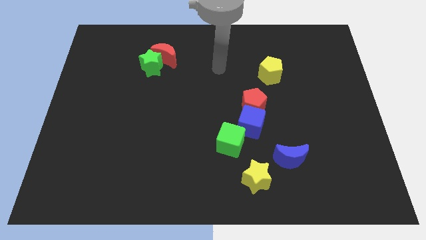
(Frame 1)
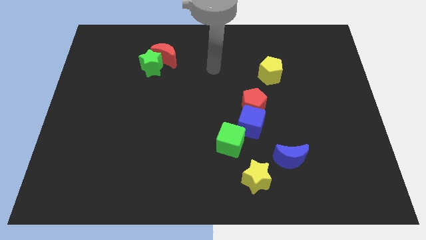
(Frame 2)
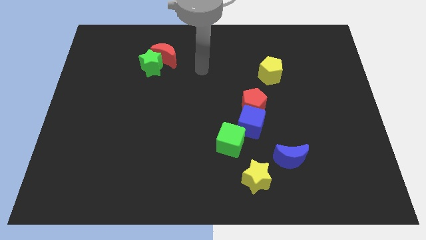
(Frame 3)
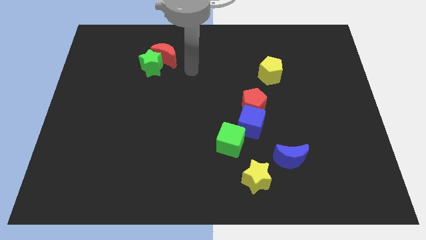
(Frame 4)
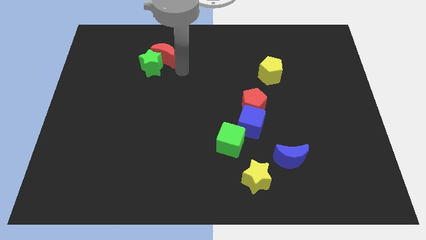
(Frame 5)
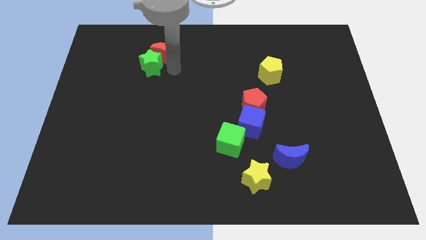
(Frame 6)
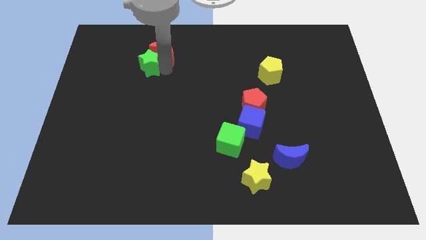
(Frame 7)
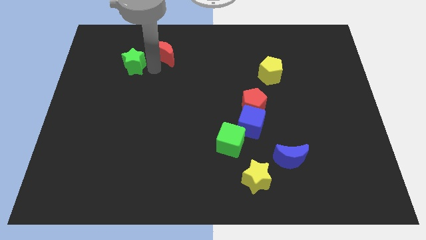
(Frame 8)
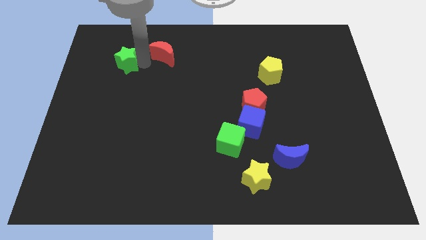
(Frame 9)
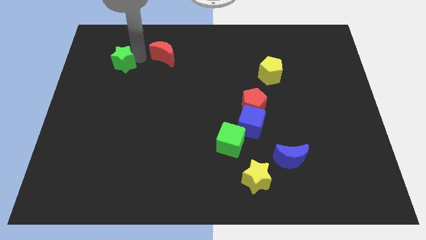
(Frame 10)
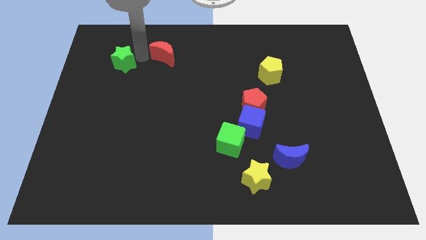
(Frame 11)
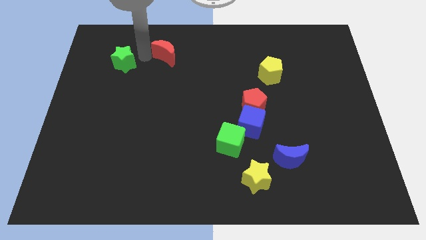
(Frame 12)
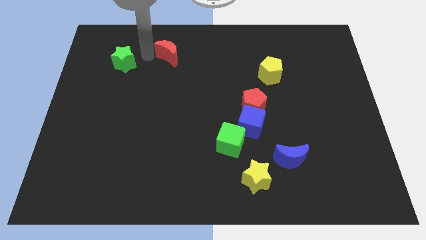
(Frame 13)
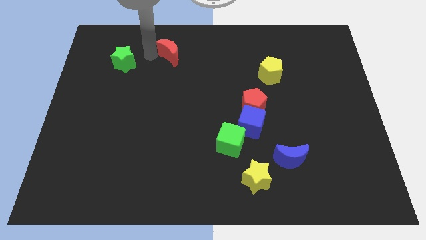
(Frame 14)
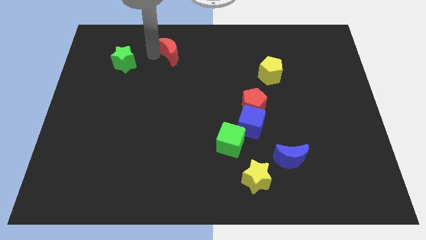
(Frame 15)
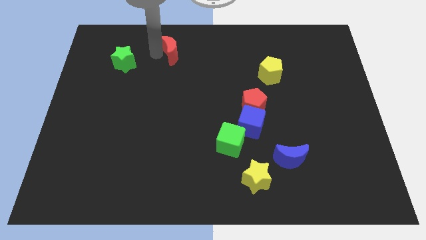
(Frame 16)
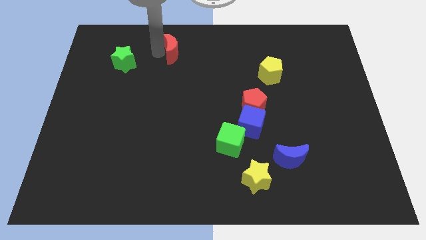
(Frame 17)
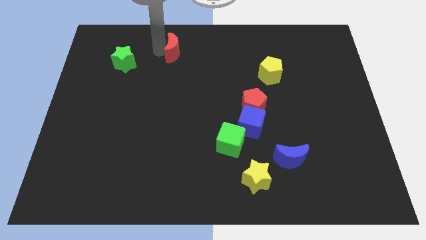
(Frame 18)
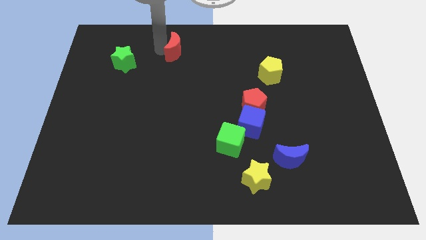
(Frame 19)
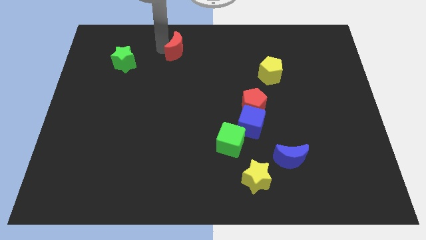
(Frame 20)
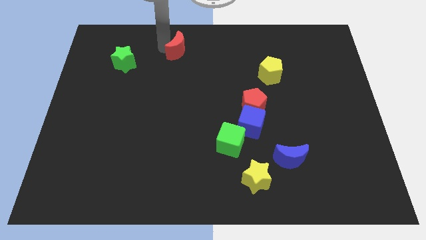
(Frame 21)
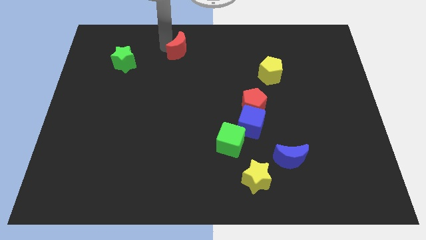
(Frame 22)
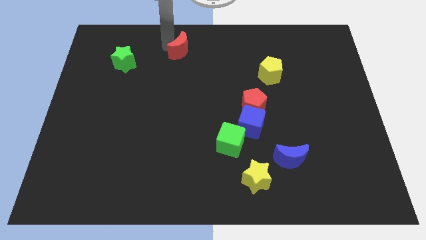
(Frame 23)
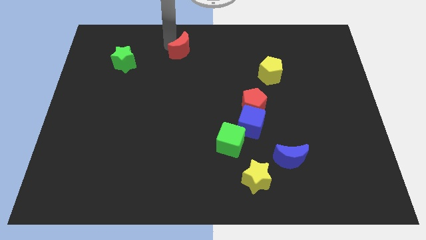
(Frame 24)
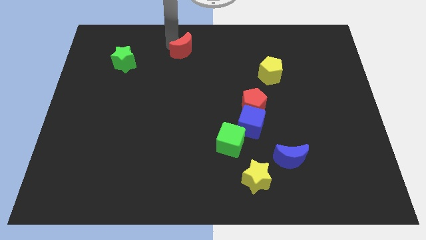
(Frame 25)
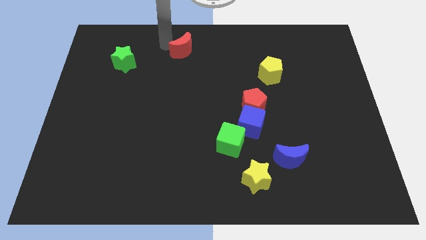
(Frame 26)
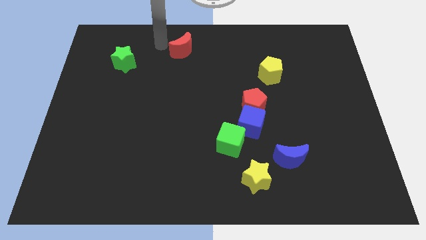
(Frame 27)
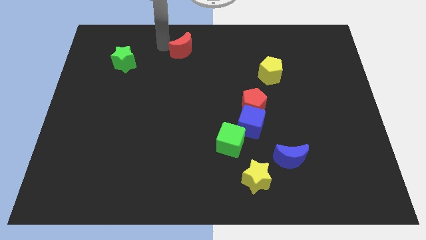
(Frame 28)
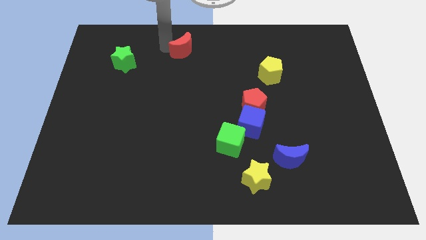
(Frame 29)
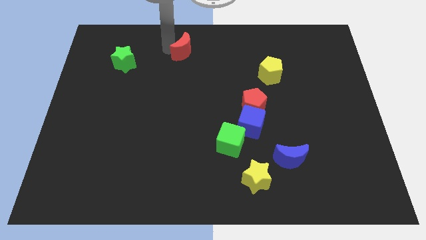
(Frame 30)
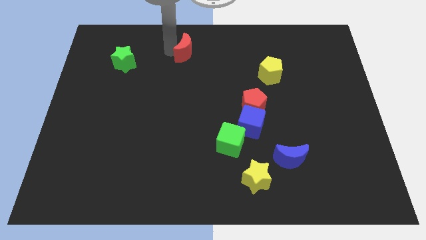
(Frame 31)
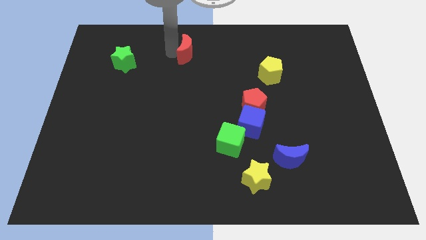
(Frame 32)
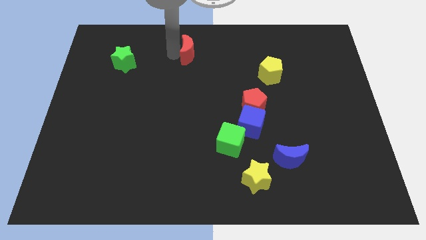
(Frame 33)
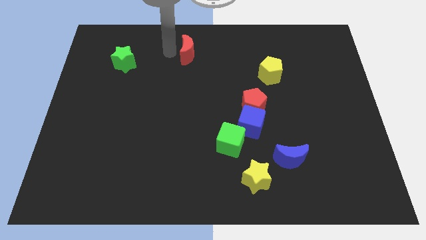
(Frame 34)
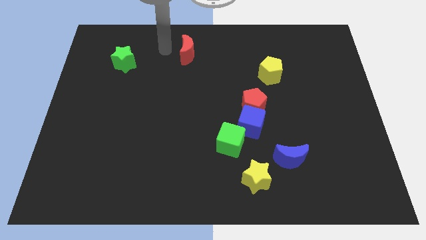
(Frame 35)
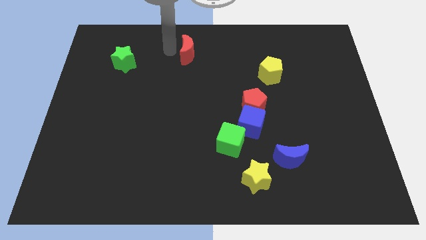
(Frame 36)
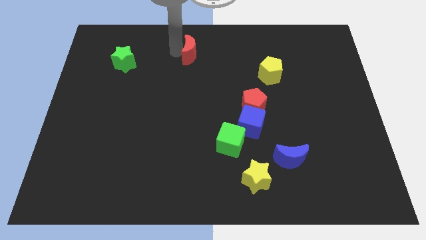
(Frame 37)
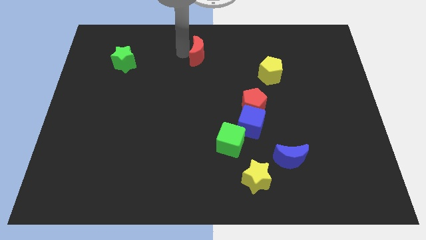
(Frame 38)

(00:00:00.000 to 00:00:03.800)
slide the red moon somewhat right

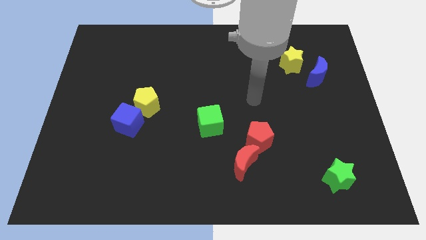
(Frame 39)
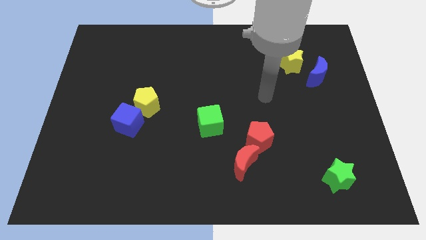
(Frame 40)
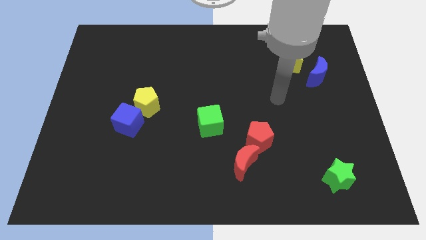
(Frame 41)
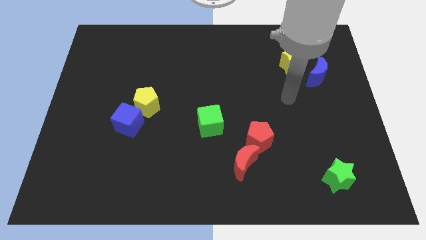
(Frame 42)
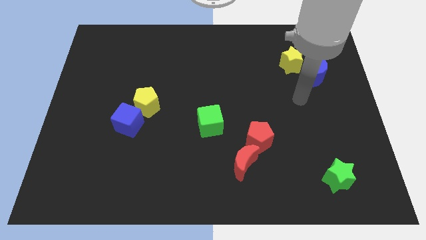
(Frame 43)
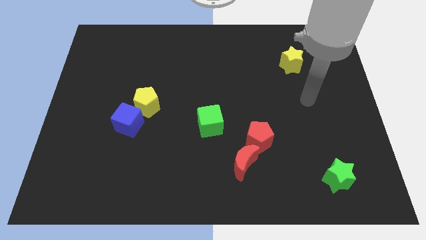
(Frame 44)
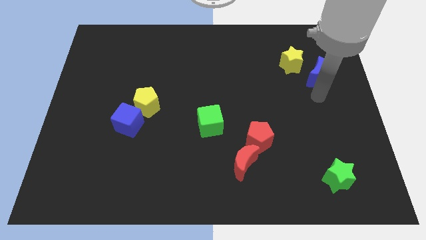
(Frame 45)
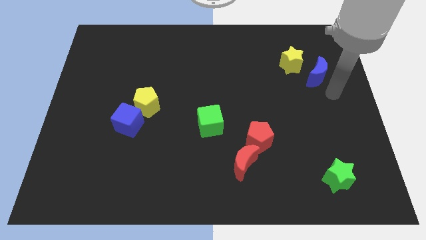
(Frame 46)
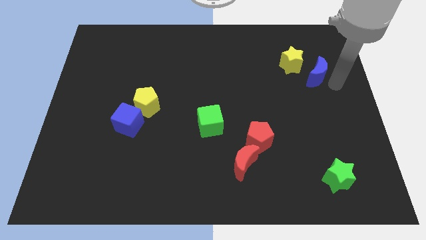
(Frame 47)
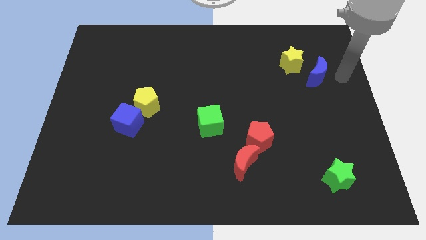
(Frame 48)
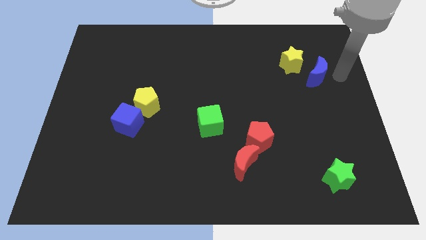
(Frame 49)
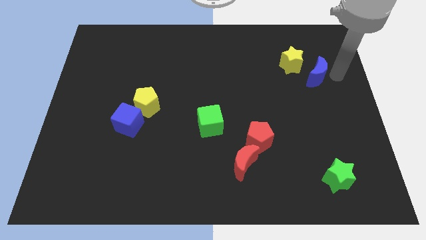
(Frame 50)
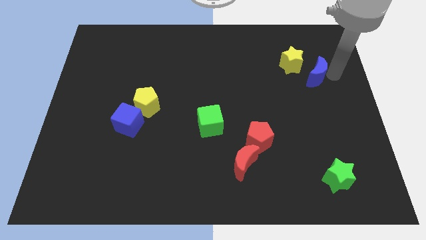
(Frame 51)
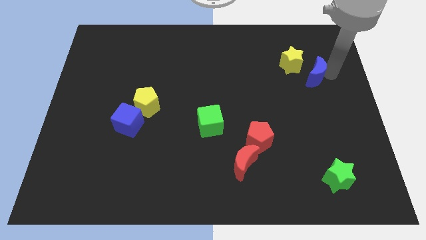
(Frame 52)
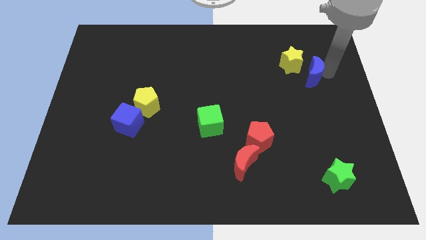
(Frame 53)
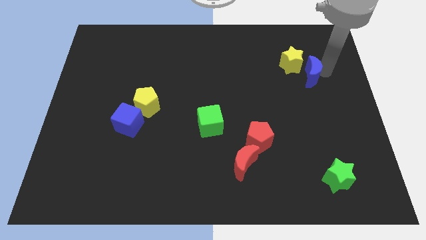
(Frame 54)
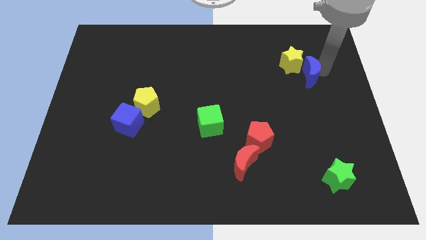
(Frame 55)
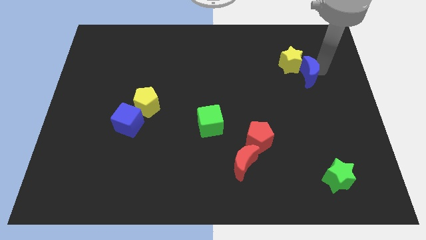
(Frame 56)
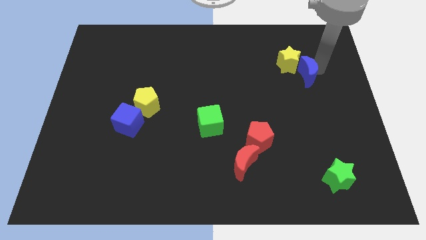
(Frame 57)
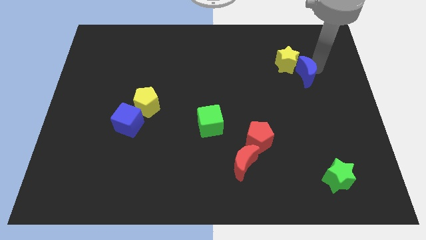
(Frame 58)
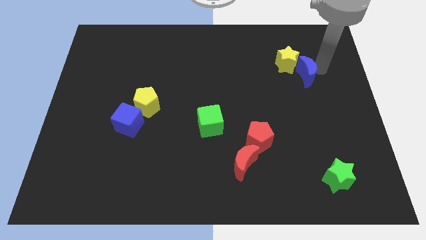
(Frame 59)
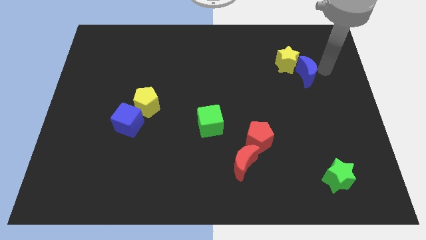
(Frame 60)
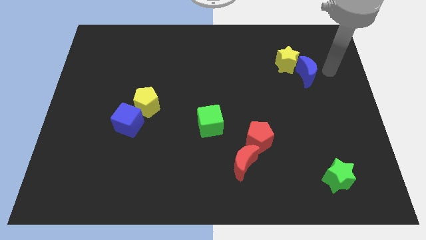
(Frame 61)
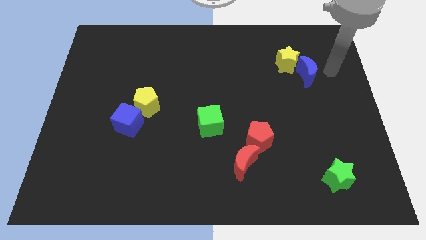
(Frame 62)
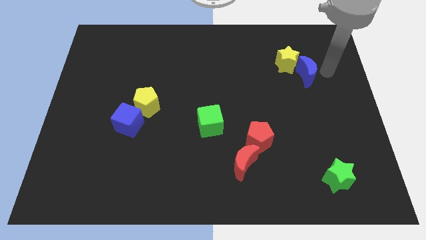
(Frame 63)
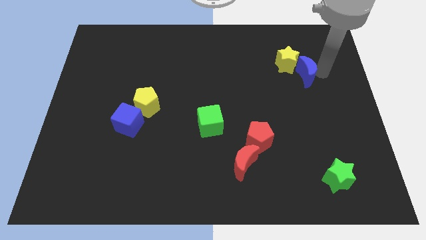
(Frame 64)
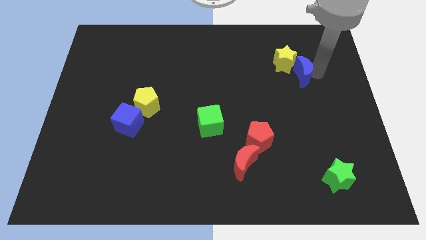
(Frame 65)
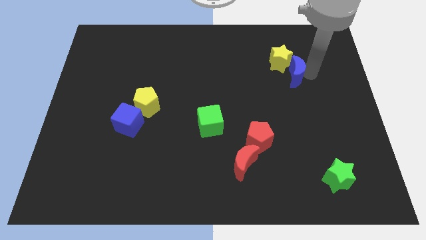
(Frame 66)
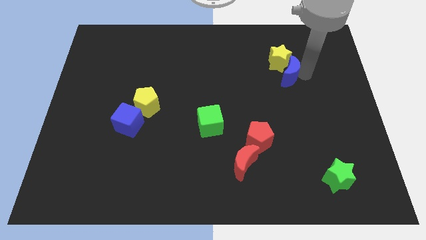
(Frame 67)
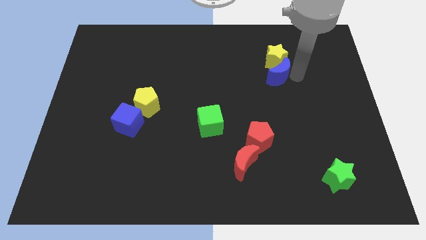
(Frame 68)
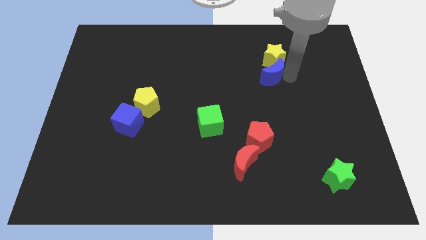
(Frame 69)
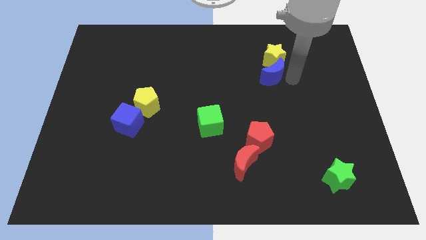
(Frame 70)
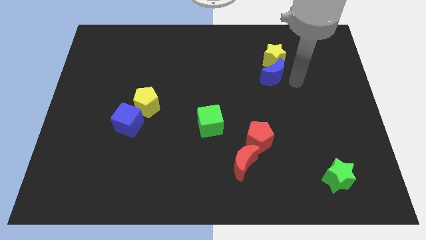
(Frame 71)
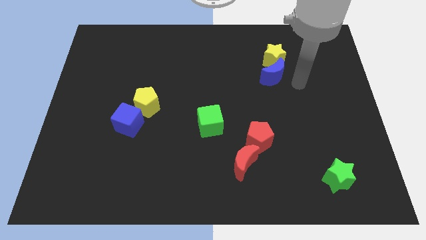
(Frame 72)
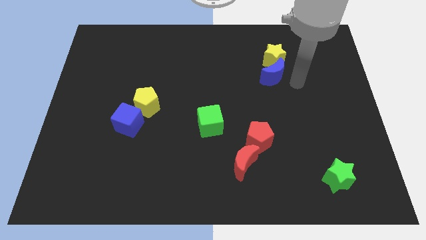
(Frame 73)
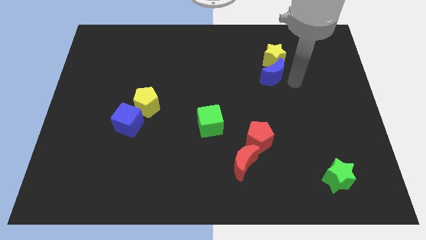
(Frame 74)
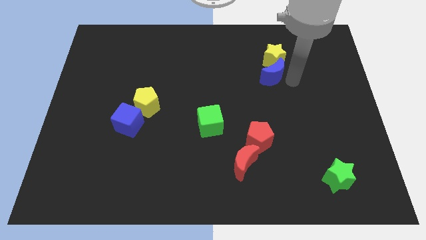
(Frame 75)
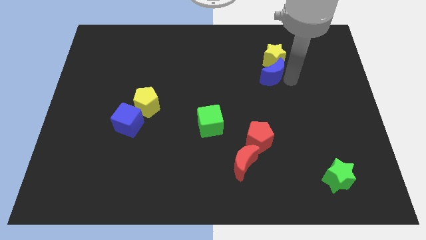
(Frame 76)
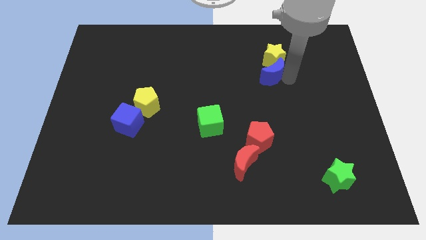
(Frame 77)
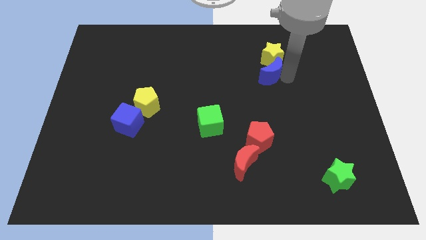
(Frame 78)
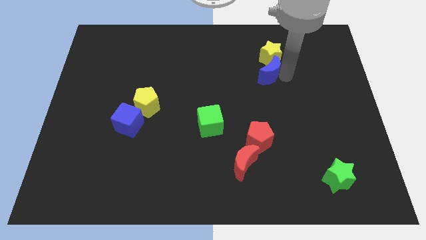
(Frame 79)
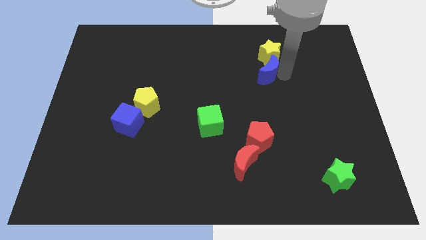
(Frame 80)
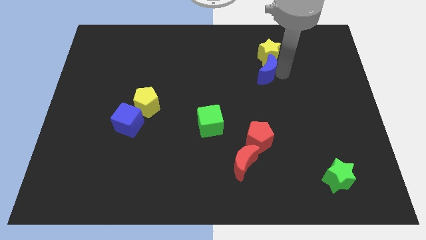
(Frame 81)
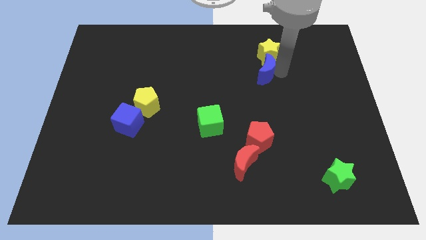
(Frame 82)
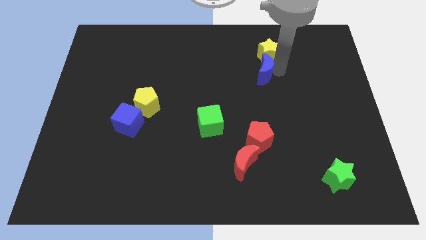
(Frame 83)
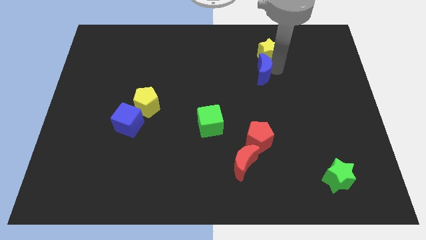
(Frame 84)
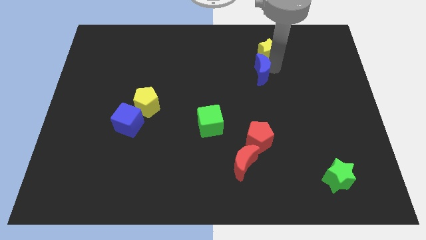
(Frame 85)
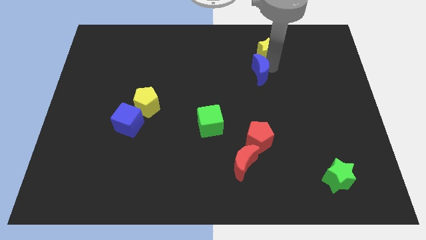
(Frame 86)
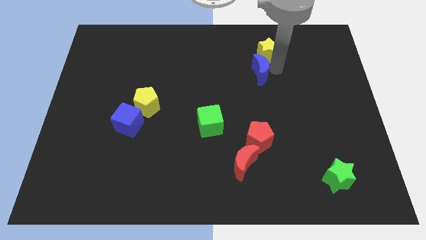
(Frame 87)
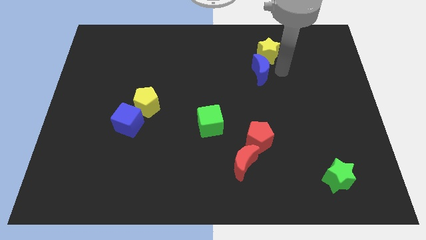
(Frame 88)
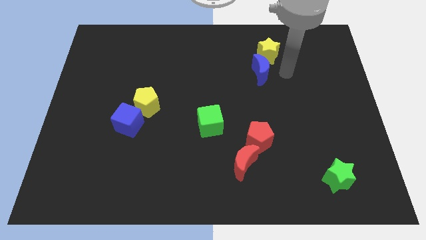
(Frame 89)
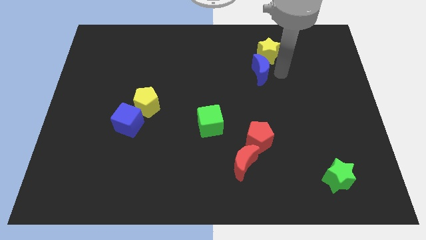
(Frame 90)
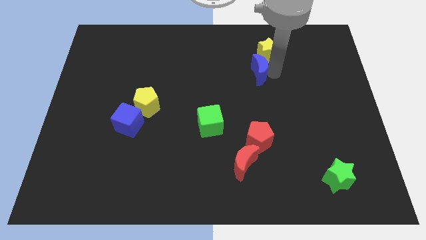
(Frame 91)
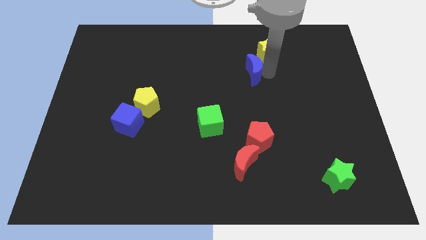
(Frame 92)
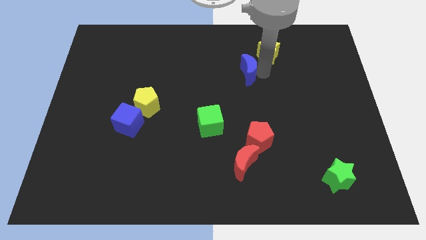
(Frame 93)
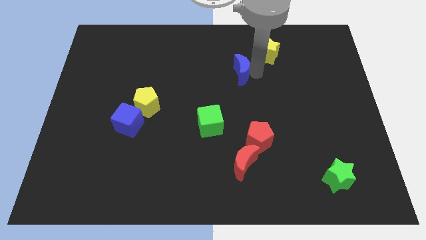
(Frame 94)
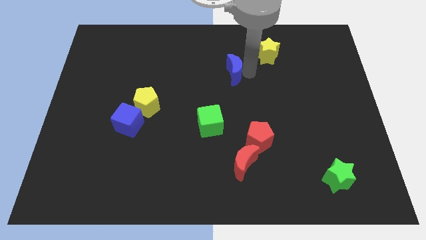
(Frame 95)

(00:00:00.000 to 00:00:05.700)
move the blue moon left
